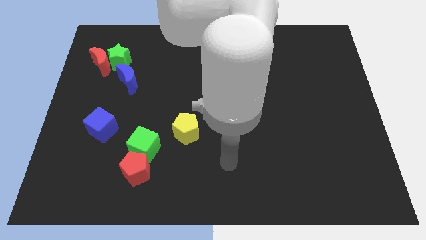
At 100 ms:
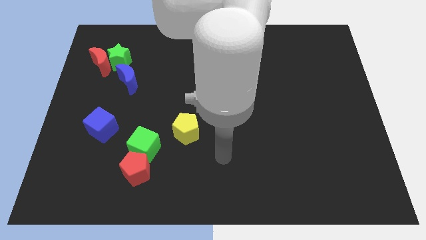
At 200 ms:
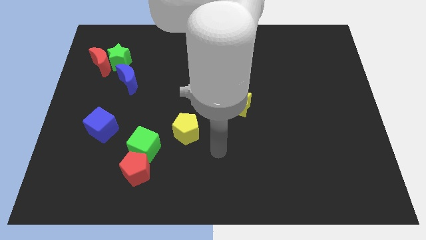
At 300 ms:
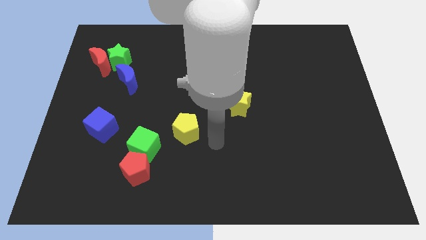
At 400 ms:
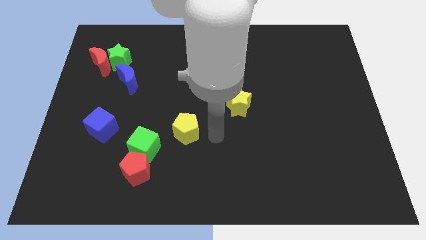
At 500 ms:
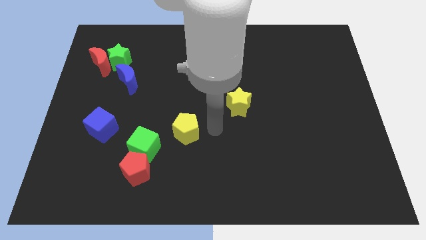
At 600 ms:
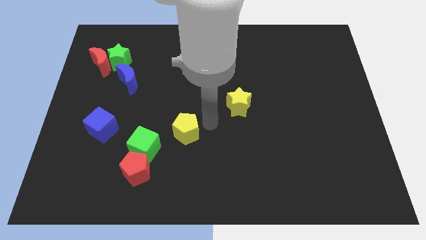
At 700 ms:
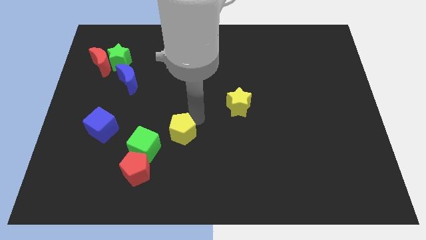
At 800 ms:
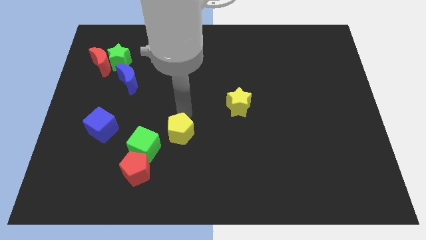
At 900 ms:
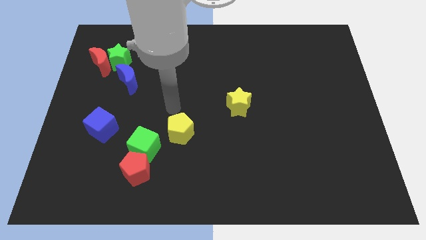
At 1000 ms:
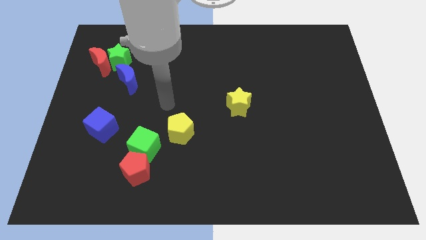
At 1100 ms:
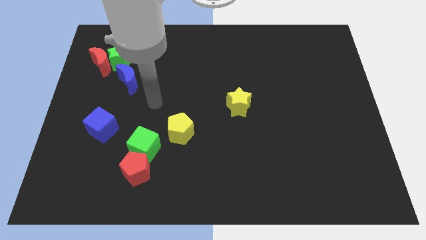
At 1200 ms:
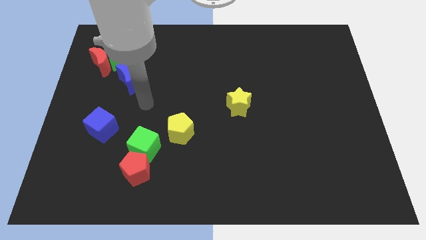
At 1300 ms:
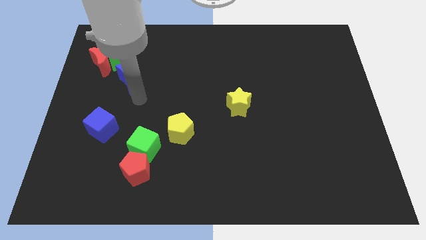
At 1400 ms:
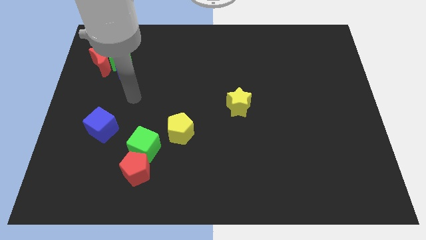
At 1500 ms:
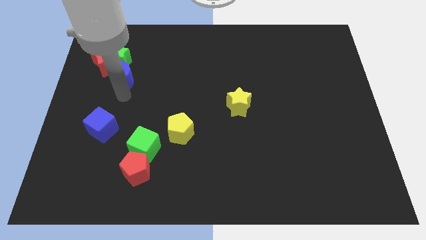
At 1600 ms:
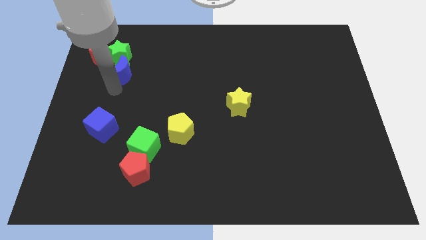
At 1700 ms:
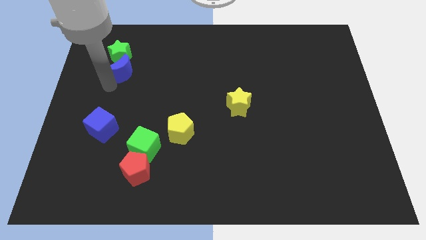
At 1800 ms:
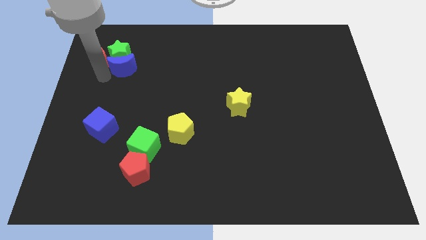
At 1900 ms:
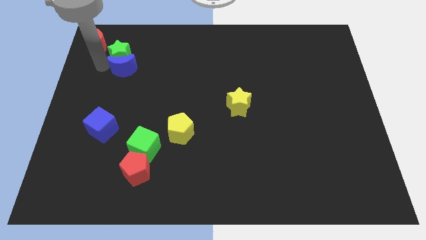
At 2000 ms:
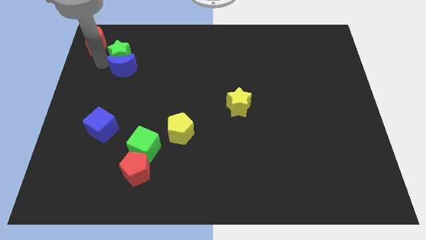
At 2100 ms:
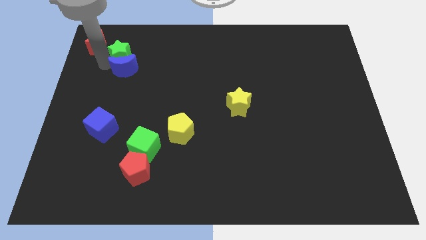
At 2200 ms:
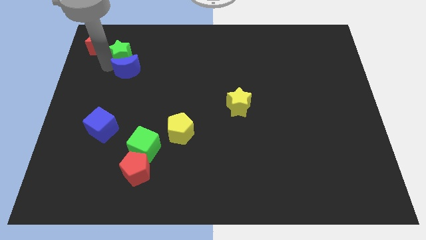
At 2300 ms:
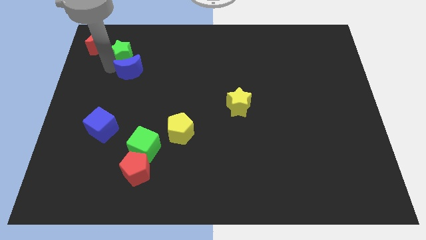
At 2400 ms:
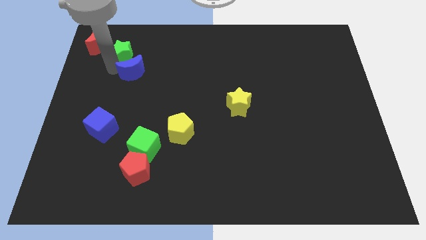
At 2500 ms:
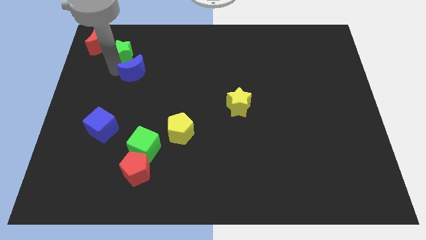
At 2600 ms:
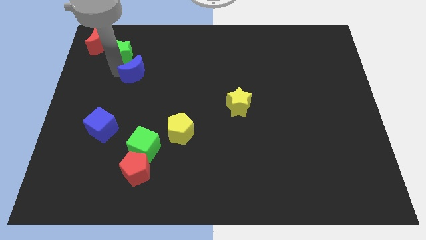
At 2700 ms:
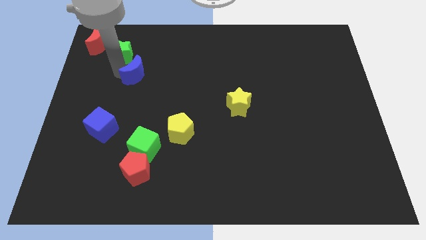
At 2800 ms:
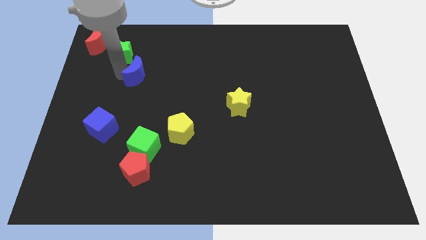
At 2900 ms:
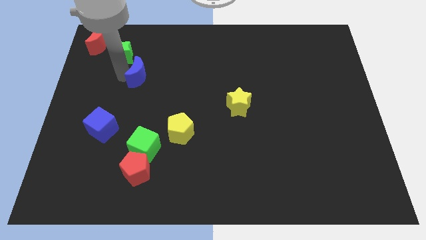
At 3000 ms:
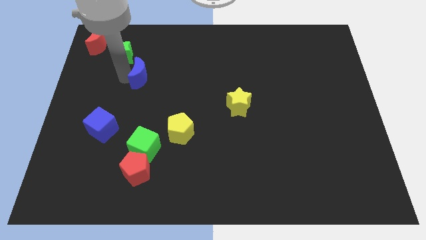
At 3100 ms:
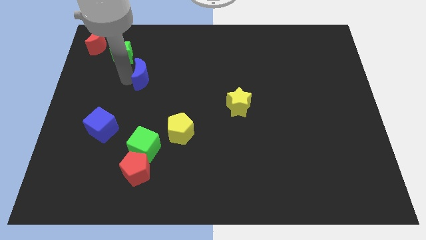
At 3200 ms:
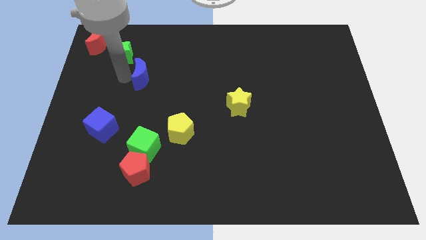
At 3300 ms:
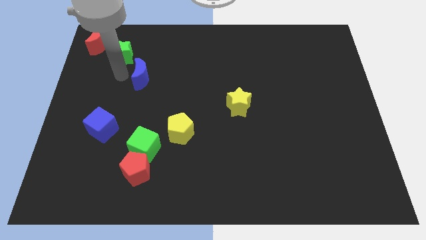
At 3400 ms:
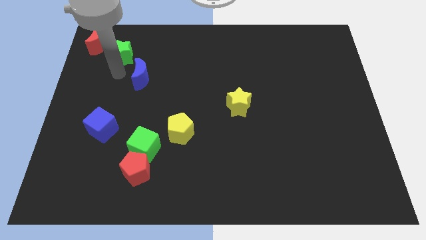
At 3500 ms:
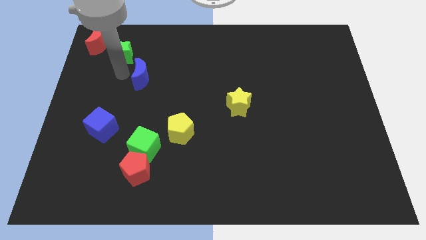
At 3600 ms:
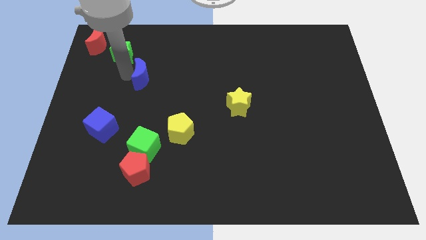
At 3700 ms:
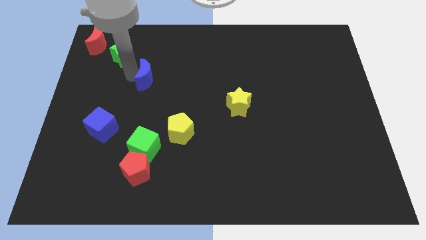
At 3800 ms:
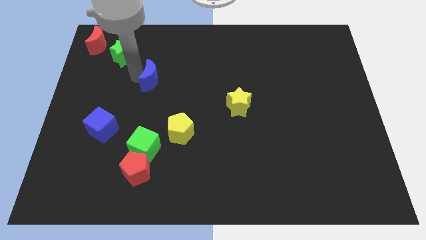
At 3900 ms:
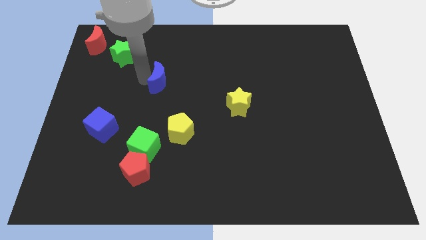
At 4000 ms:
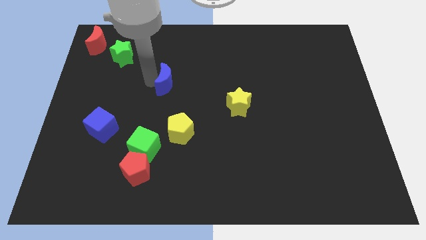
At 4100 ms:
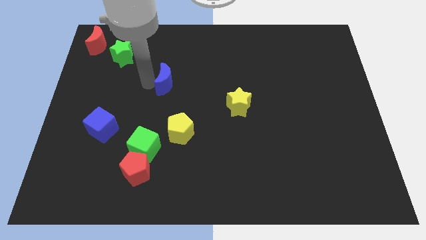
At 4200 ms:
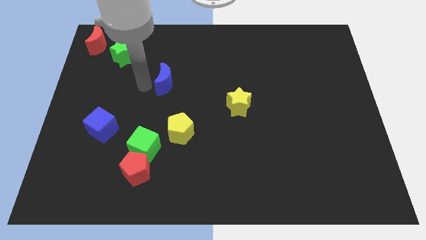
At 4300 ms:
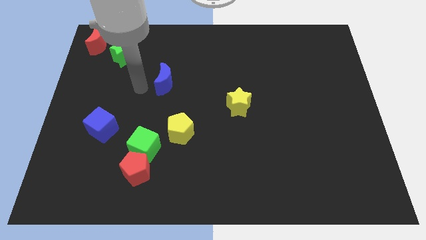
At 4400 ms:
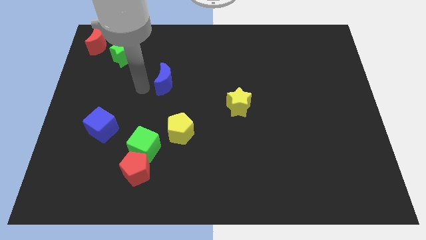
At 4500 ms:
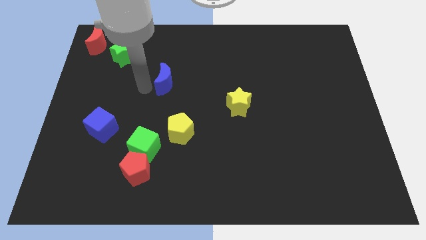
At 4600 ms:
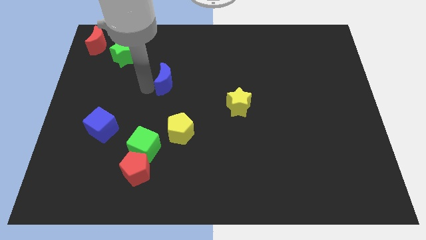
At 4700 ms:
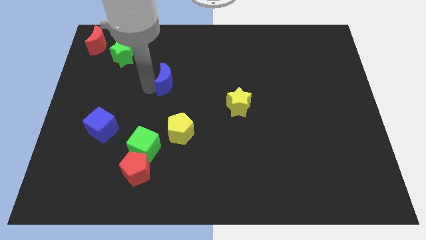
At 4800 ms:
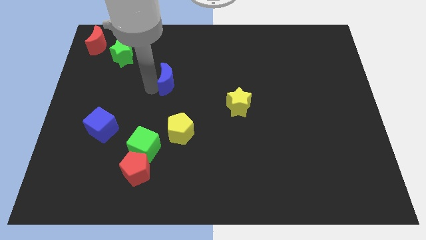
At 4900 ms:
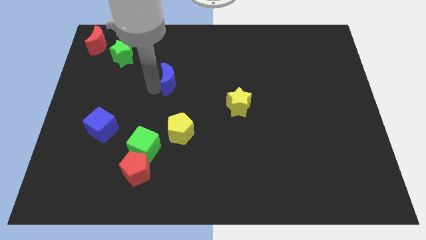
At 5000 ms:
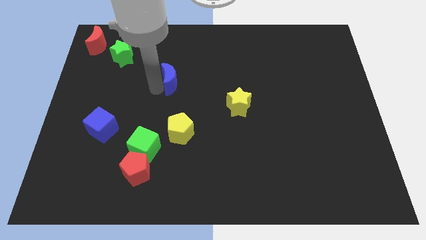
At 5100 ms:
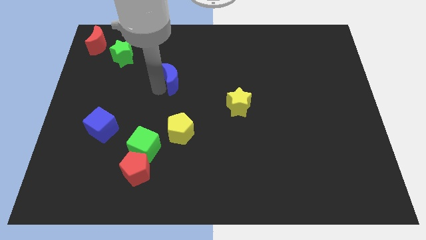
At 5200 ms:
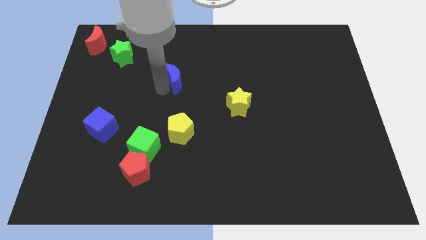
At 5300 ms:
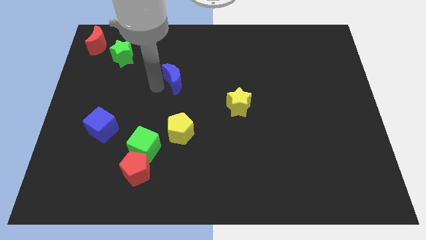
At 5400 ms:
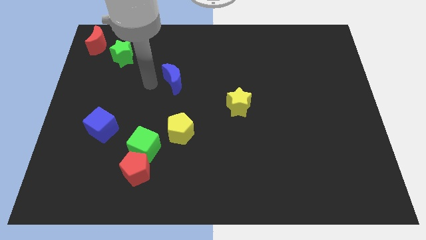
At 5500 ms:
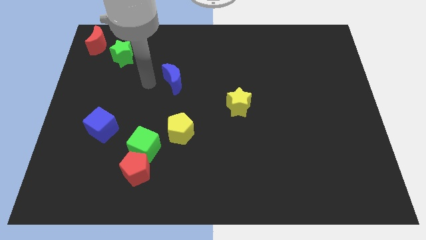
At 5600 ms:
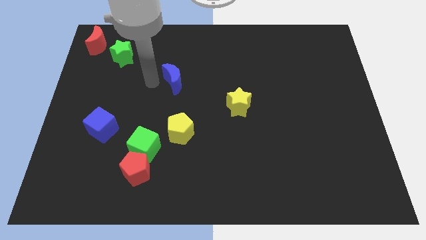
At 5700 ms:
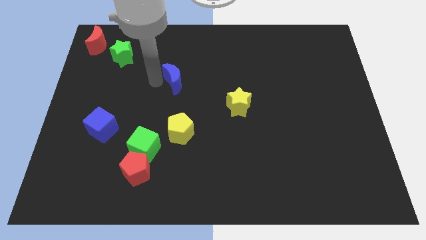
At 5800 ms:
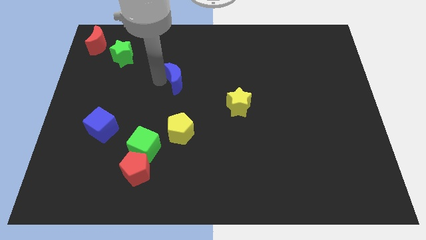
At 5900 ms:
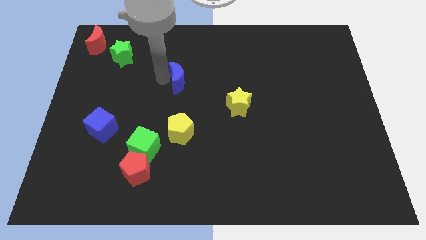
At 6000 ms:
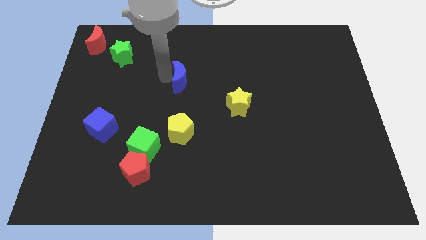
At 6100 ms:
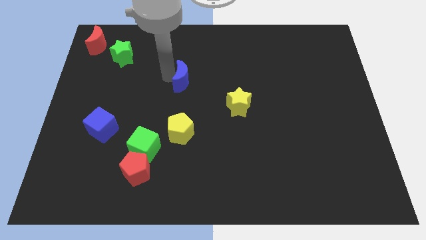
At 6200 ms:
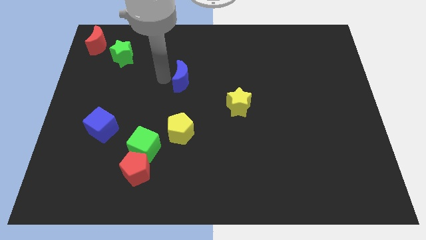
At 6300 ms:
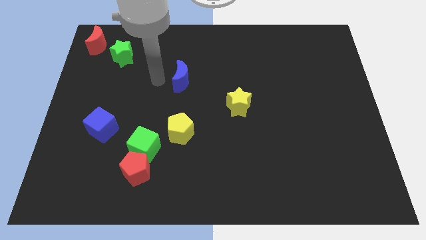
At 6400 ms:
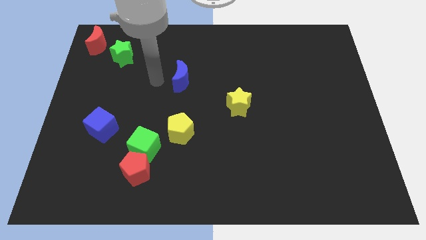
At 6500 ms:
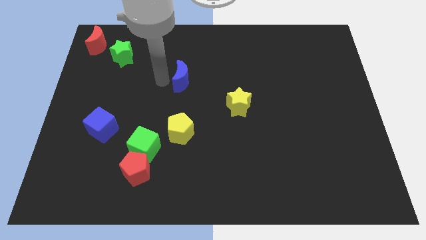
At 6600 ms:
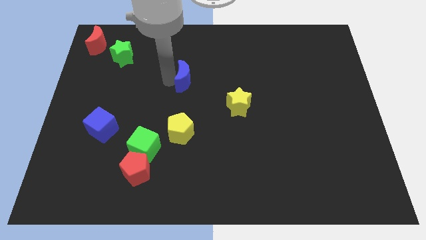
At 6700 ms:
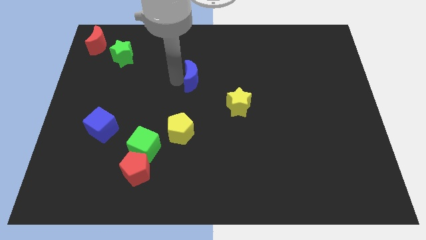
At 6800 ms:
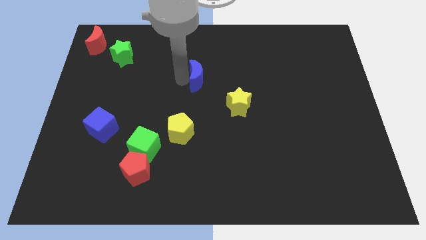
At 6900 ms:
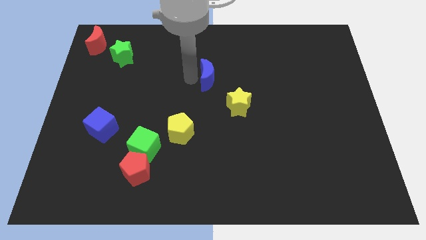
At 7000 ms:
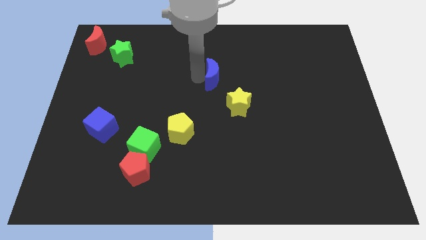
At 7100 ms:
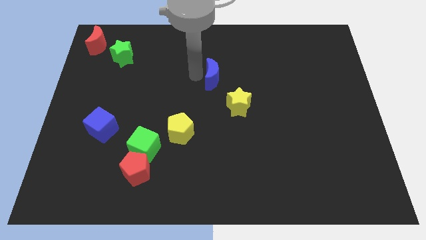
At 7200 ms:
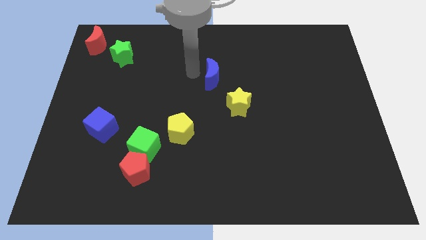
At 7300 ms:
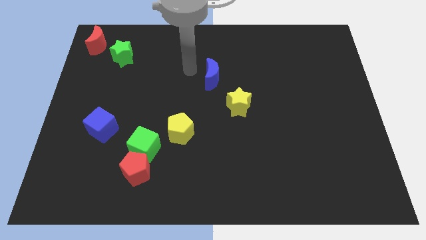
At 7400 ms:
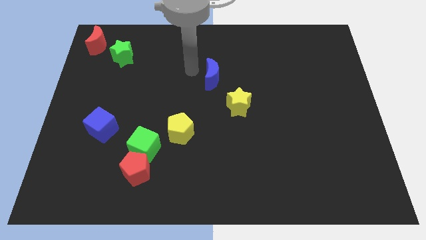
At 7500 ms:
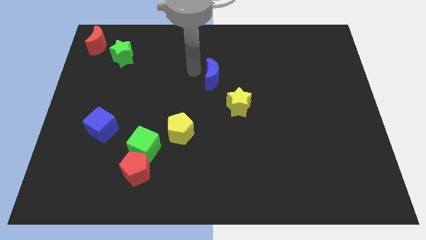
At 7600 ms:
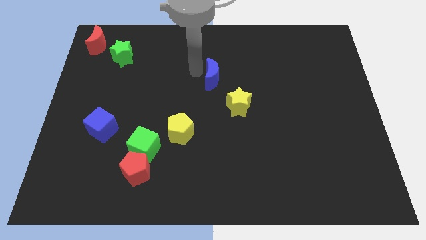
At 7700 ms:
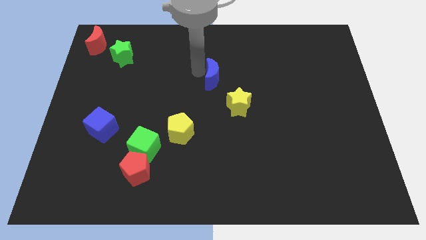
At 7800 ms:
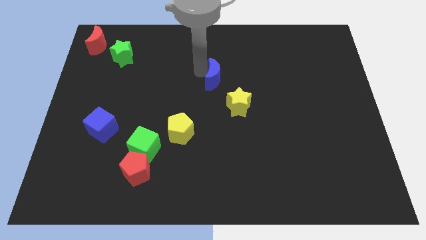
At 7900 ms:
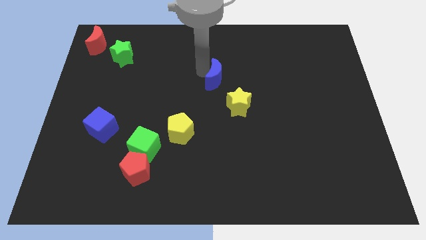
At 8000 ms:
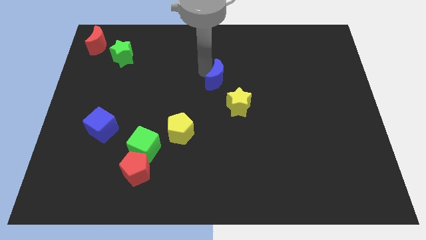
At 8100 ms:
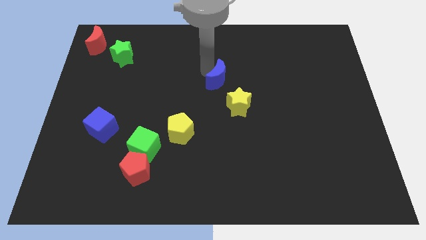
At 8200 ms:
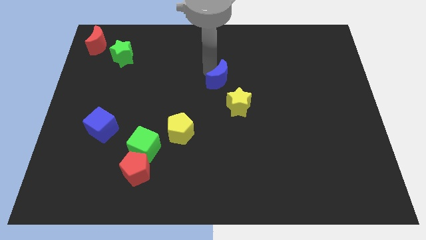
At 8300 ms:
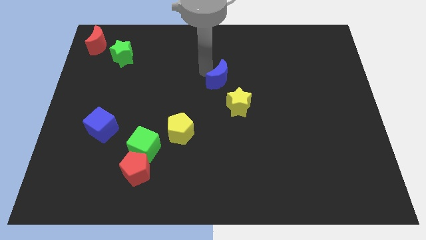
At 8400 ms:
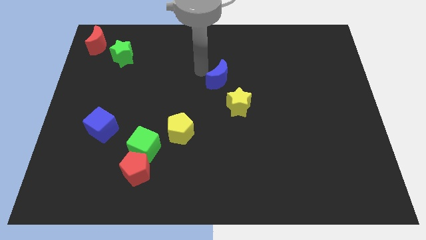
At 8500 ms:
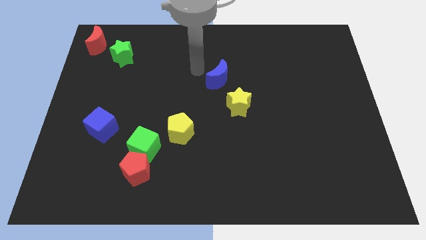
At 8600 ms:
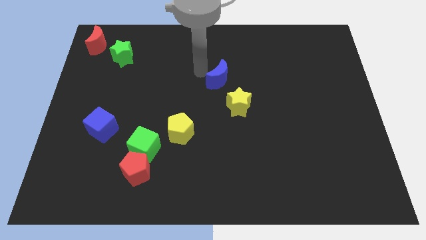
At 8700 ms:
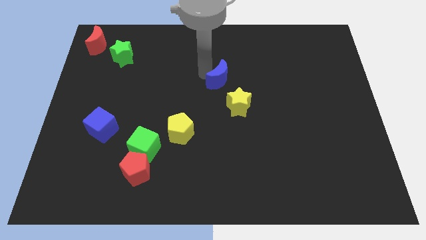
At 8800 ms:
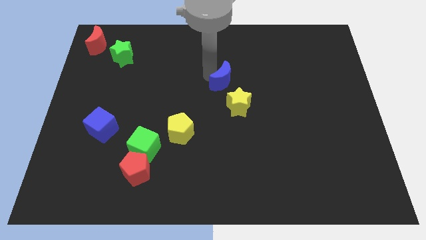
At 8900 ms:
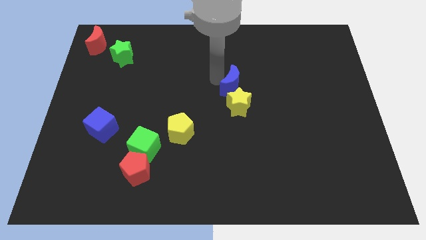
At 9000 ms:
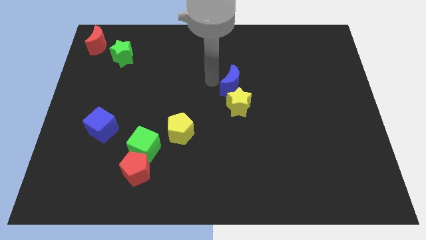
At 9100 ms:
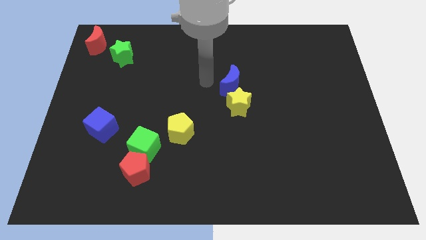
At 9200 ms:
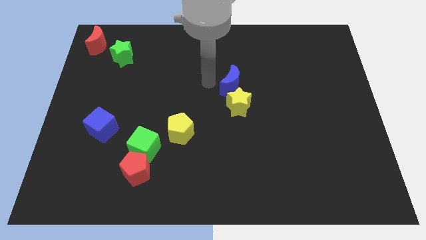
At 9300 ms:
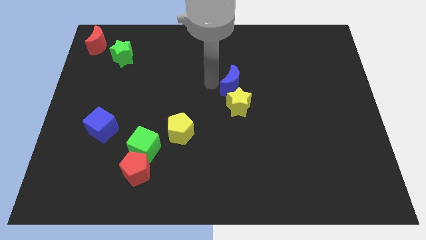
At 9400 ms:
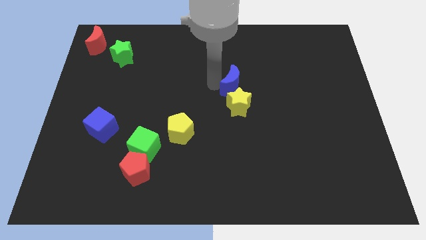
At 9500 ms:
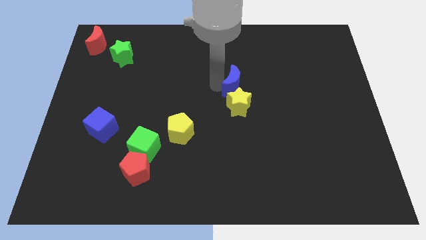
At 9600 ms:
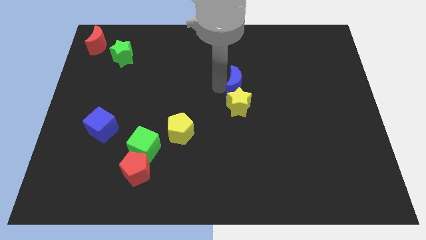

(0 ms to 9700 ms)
put the blue moon to the top right of the yellow star
